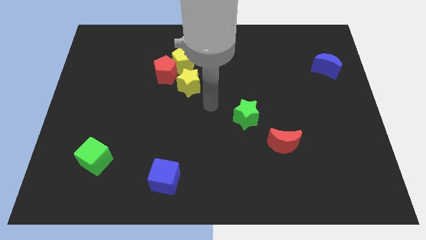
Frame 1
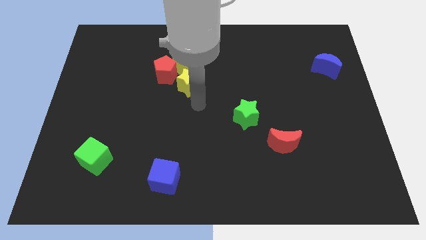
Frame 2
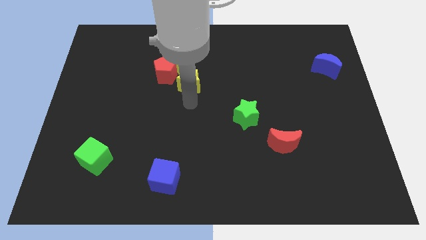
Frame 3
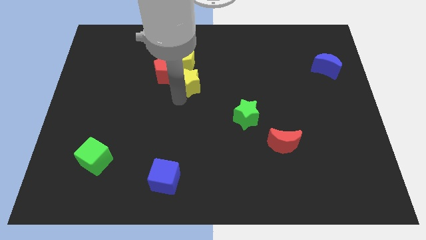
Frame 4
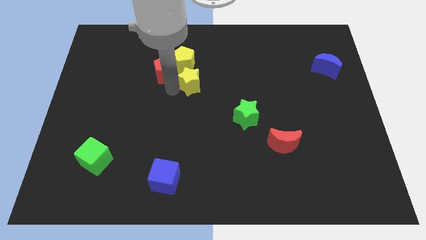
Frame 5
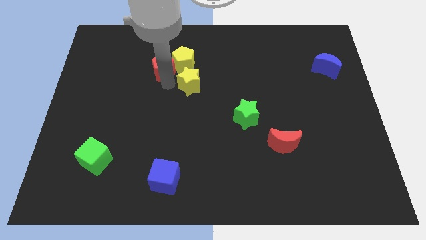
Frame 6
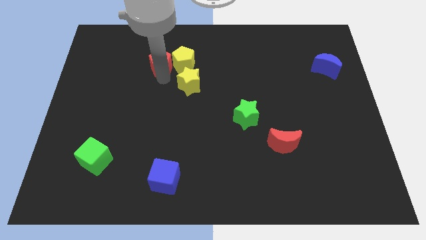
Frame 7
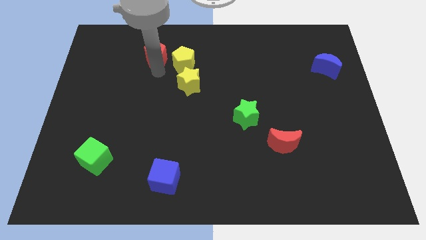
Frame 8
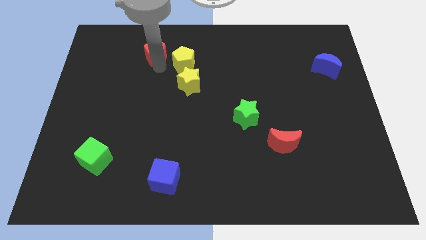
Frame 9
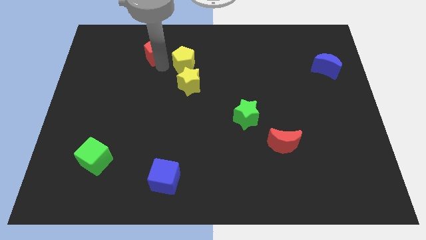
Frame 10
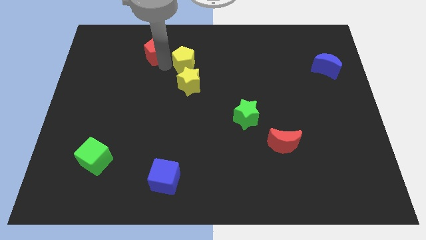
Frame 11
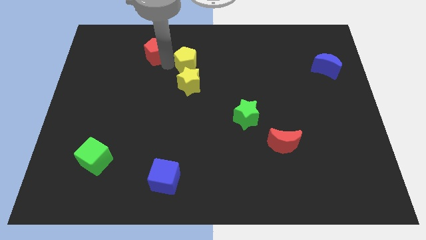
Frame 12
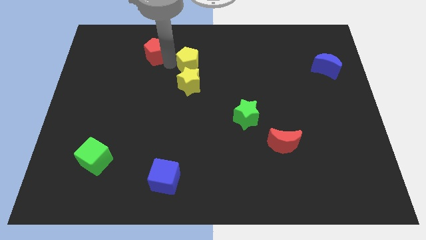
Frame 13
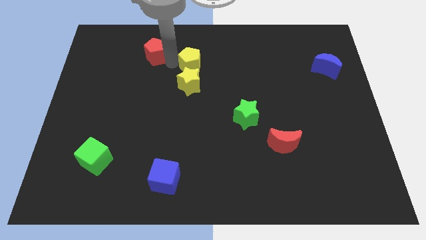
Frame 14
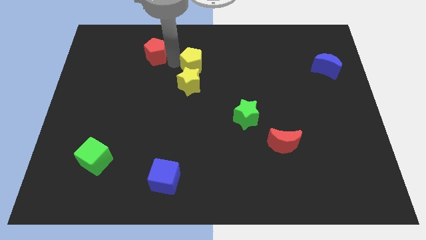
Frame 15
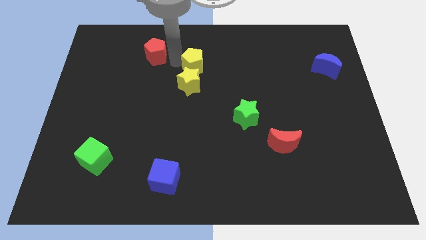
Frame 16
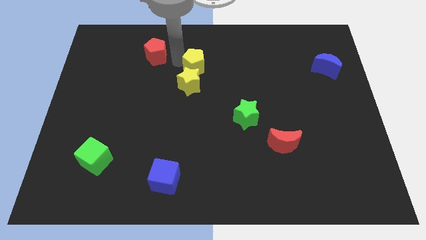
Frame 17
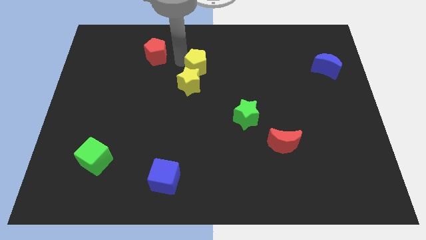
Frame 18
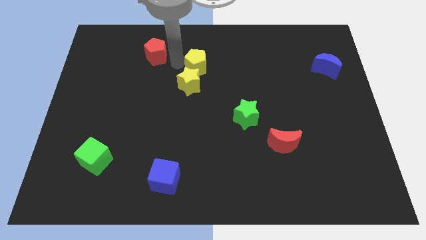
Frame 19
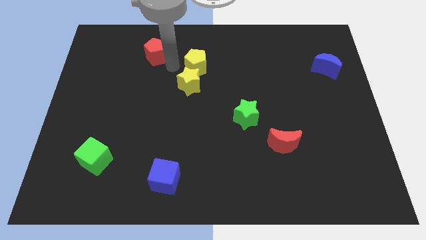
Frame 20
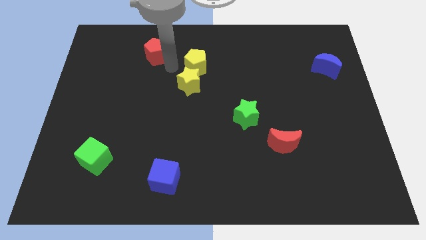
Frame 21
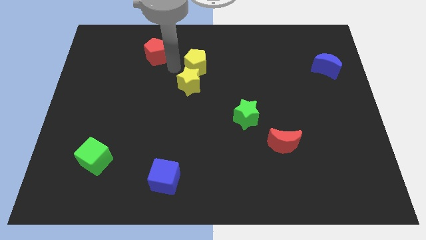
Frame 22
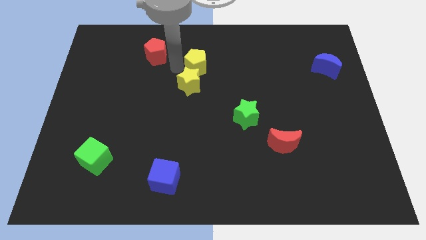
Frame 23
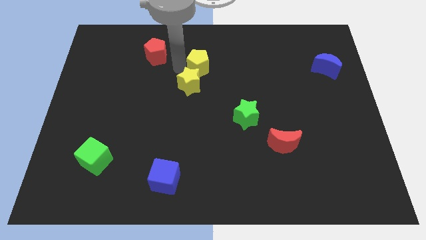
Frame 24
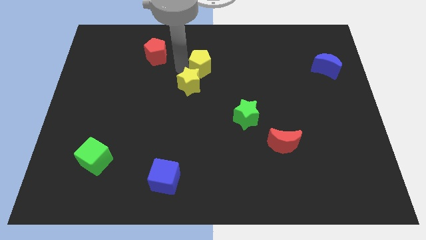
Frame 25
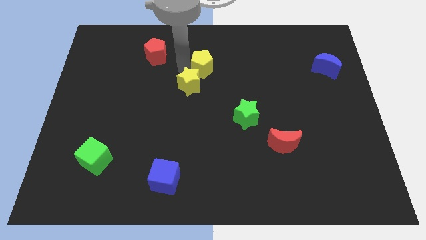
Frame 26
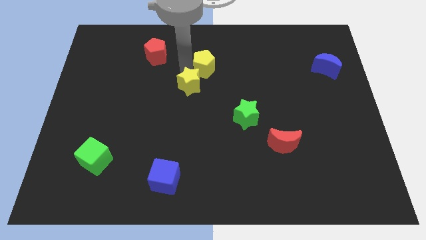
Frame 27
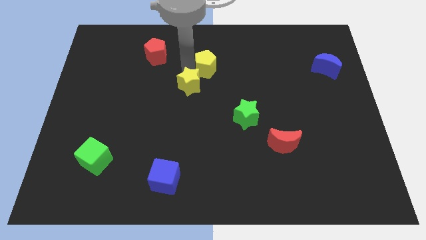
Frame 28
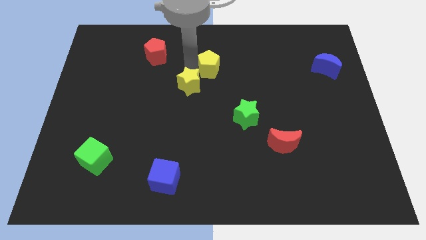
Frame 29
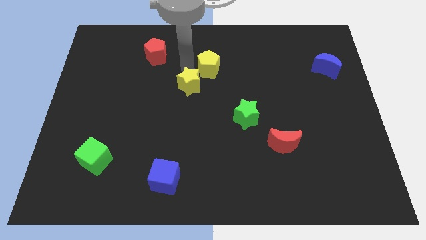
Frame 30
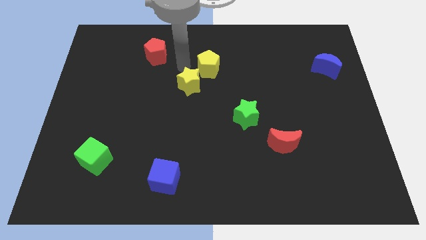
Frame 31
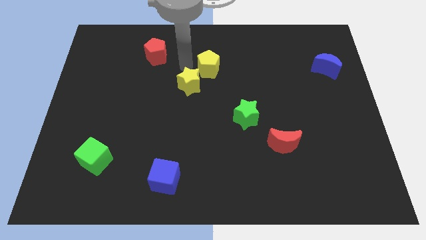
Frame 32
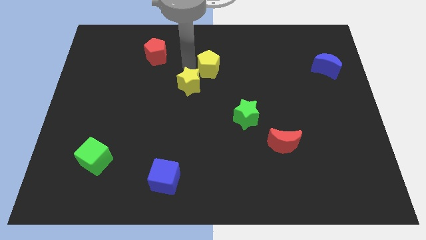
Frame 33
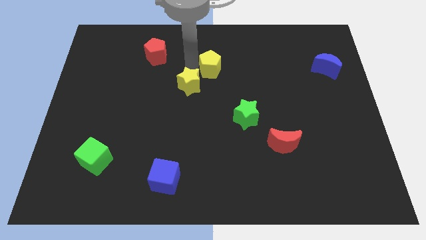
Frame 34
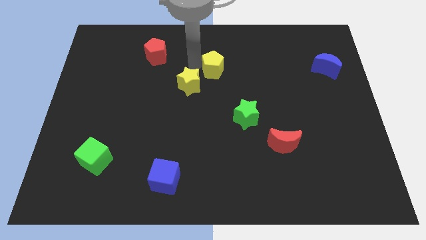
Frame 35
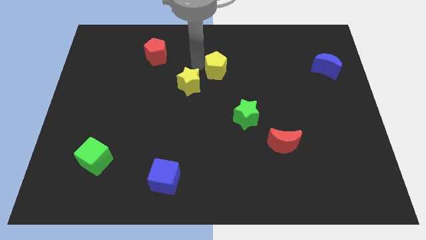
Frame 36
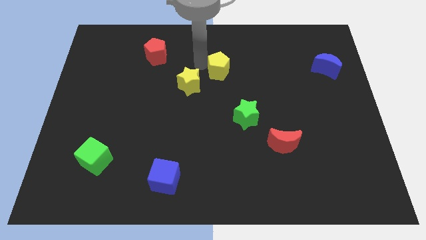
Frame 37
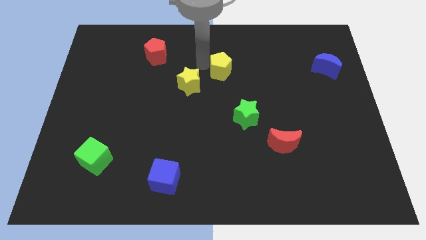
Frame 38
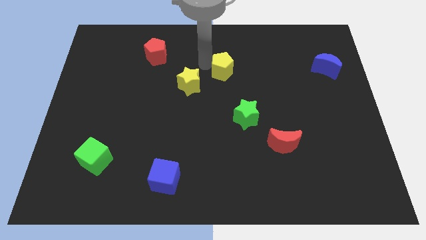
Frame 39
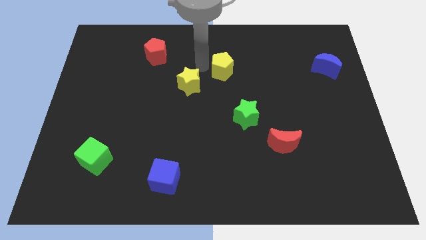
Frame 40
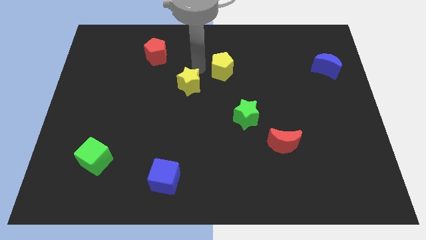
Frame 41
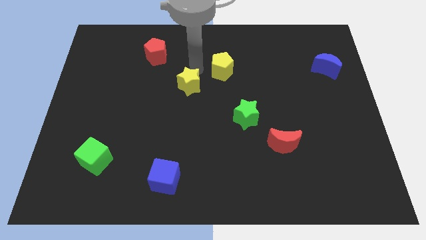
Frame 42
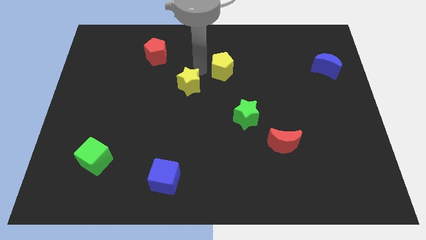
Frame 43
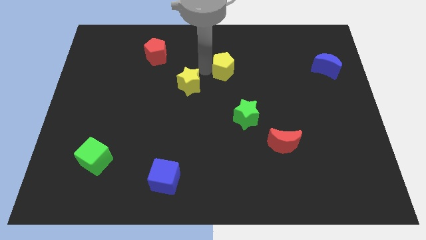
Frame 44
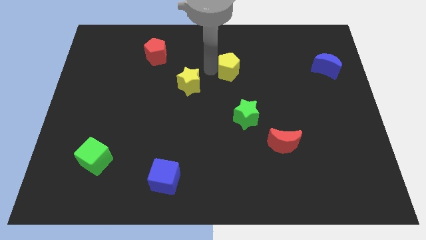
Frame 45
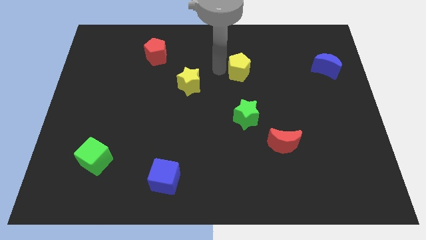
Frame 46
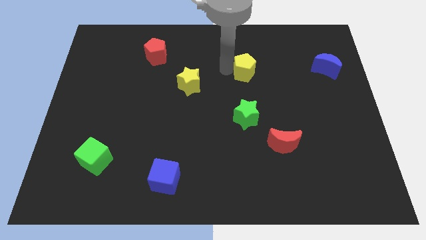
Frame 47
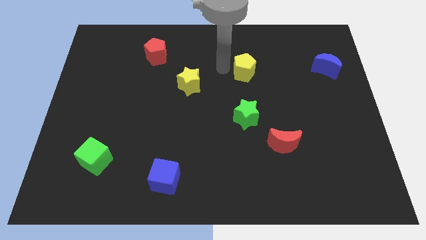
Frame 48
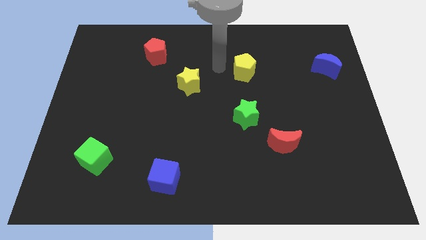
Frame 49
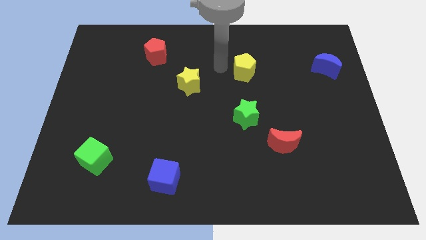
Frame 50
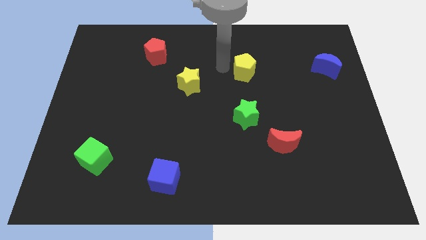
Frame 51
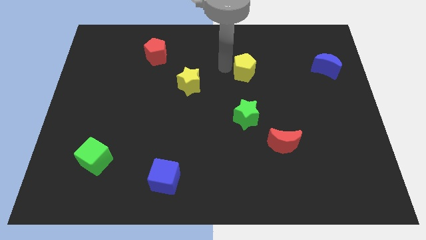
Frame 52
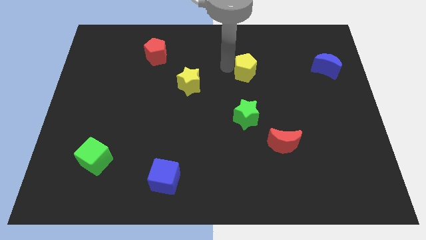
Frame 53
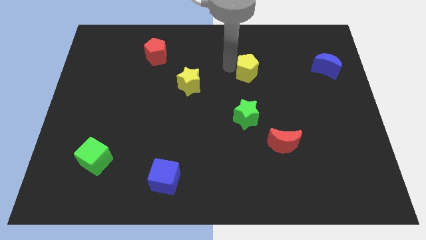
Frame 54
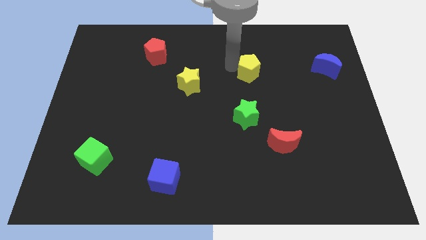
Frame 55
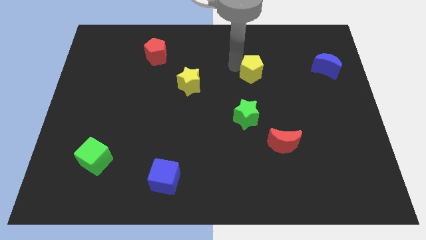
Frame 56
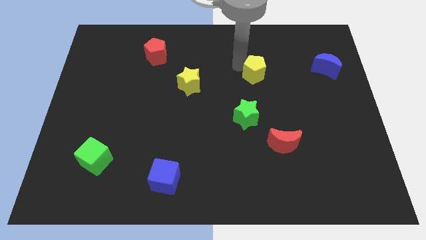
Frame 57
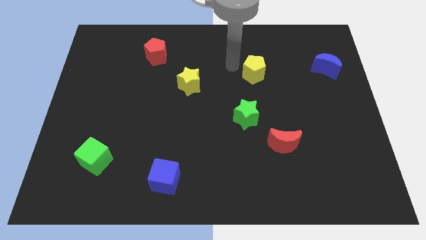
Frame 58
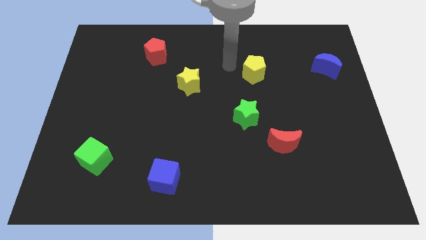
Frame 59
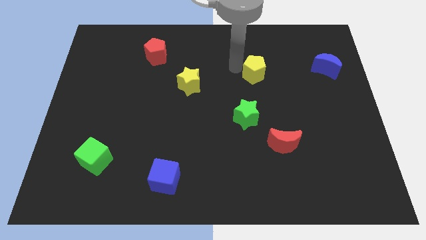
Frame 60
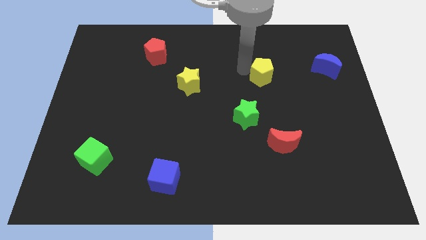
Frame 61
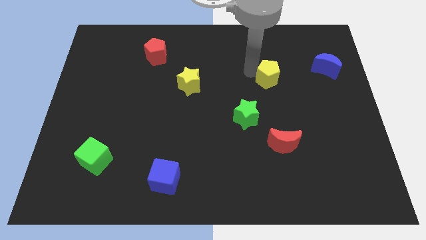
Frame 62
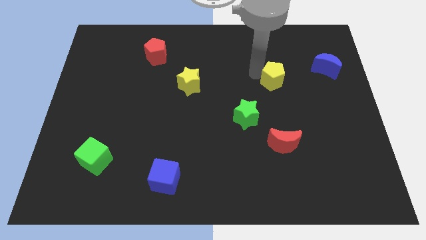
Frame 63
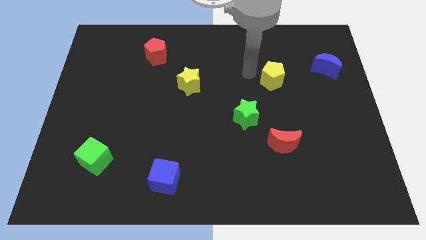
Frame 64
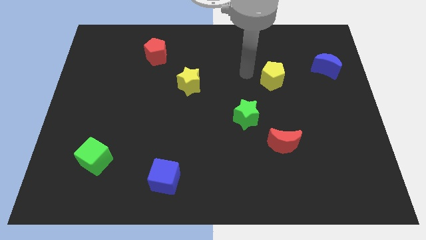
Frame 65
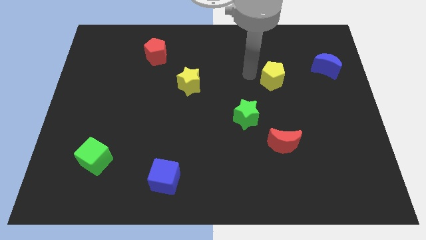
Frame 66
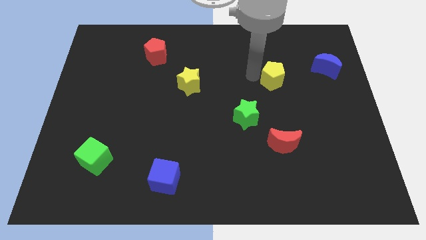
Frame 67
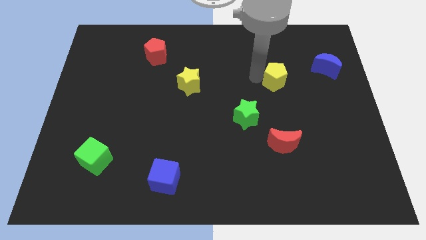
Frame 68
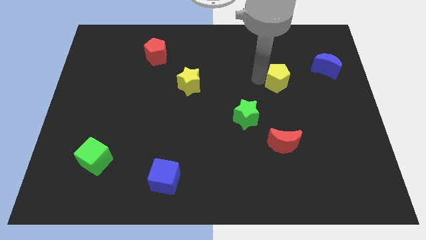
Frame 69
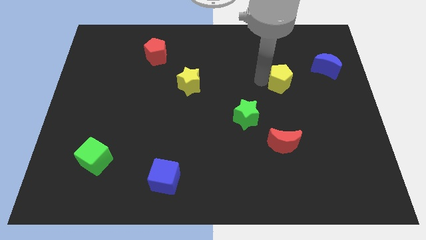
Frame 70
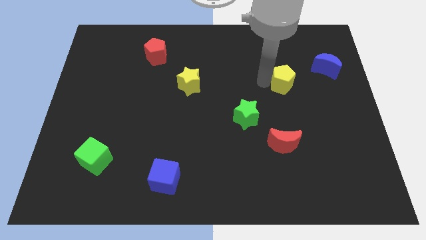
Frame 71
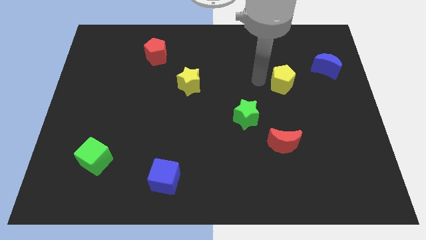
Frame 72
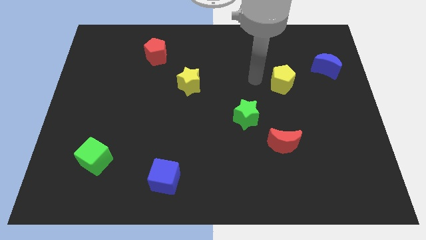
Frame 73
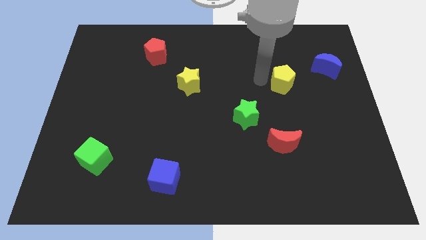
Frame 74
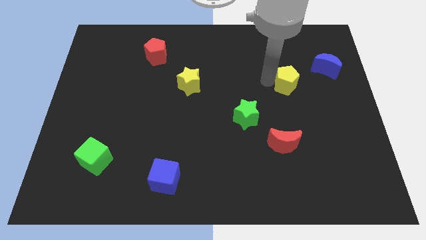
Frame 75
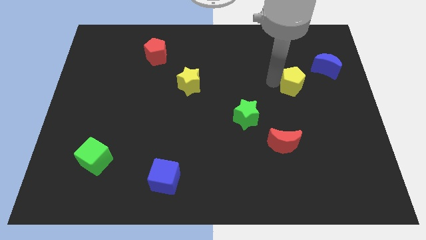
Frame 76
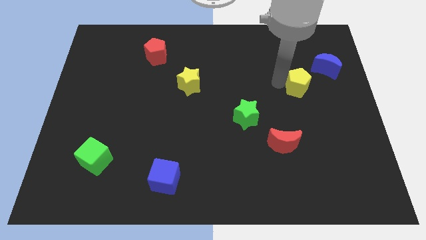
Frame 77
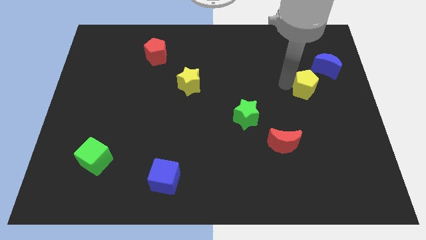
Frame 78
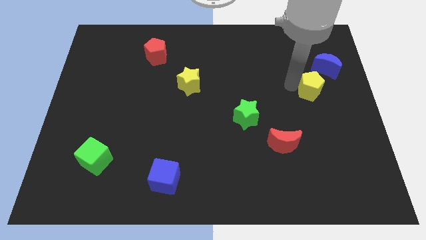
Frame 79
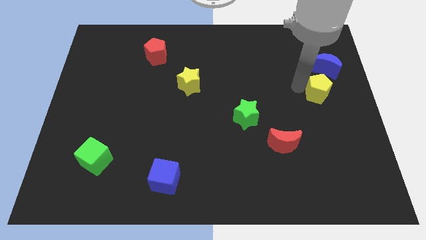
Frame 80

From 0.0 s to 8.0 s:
push the yellow pentagon to the center right
